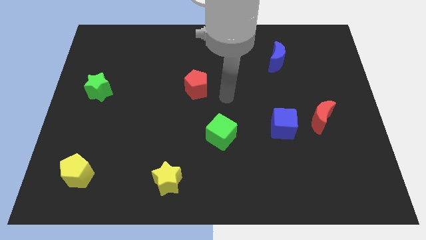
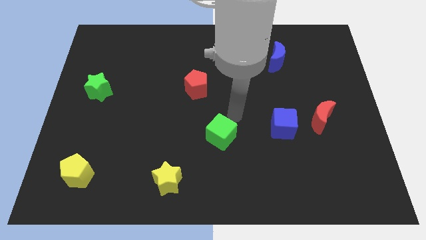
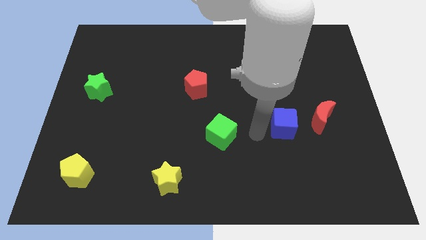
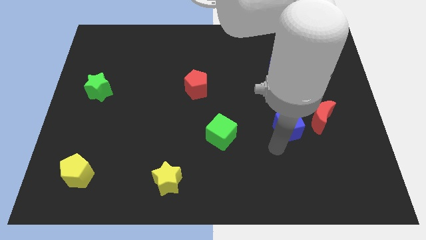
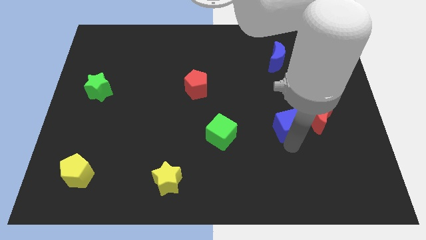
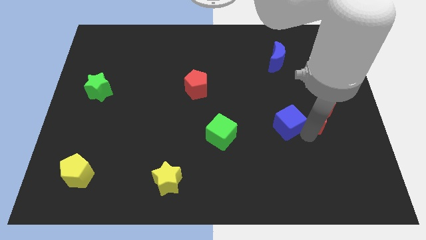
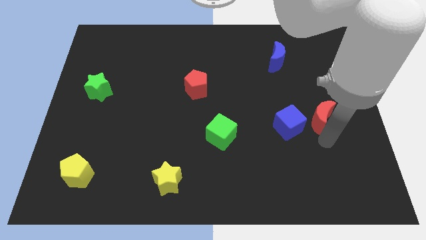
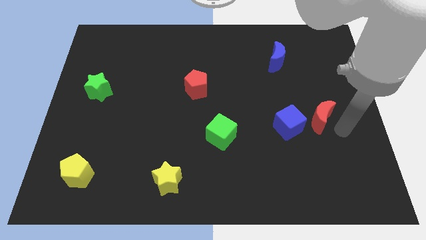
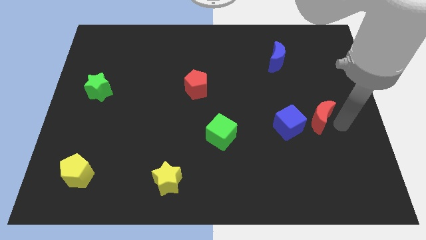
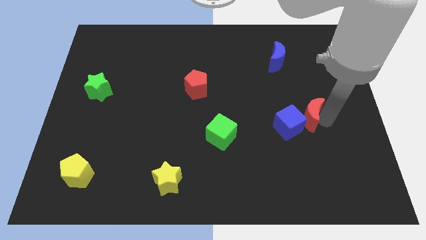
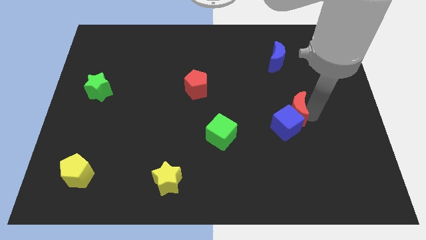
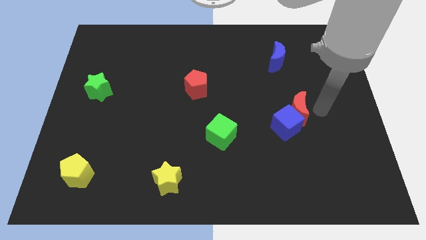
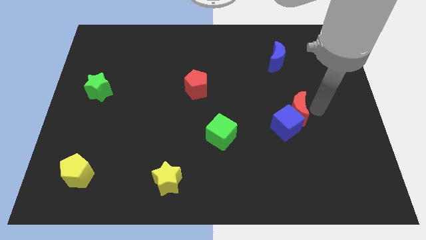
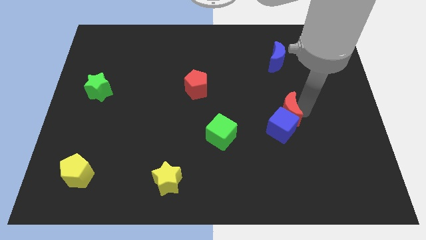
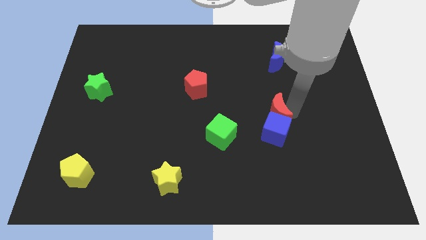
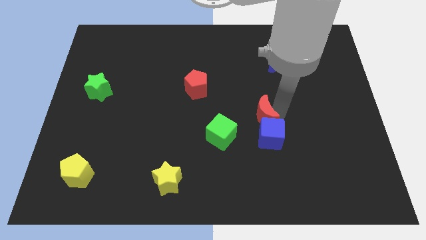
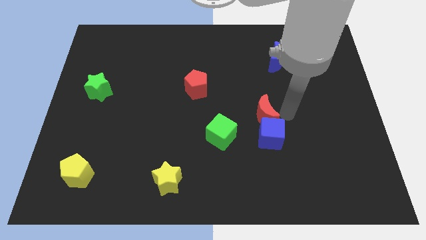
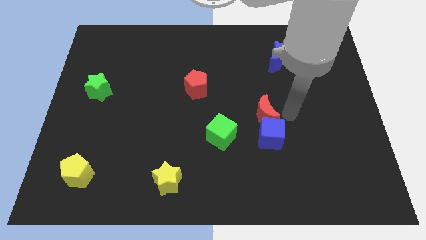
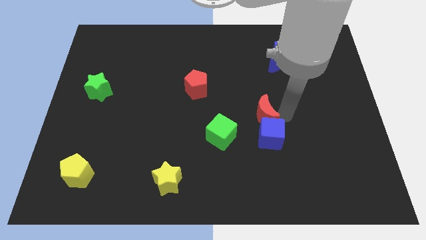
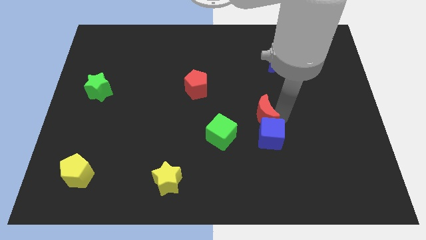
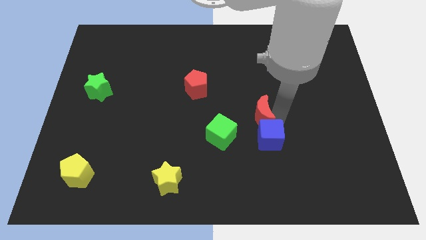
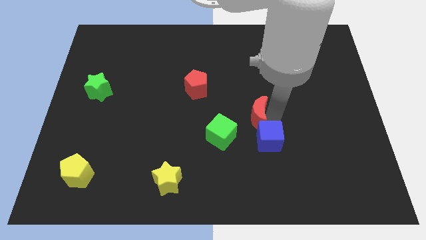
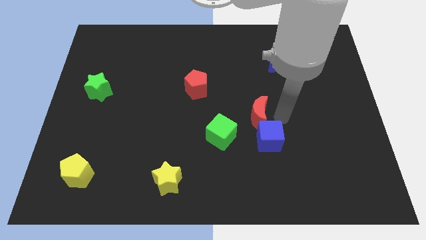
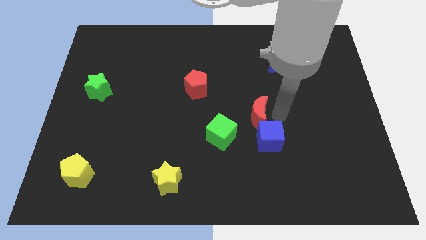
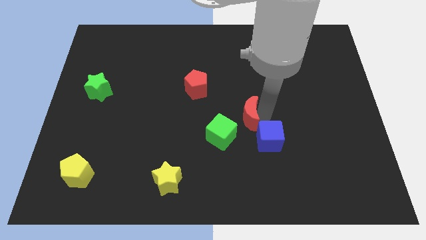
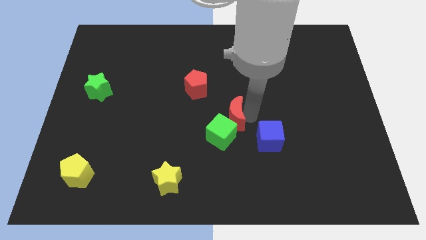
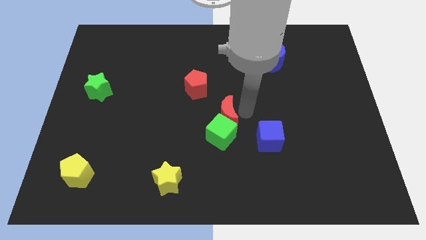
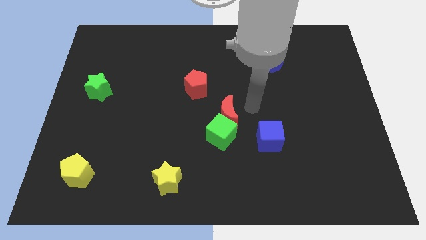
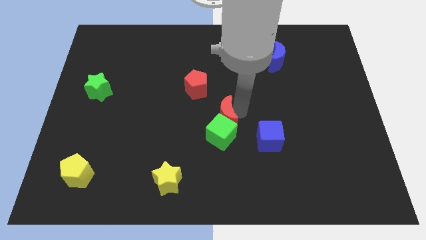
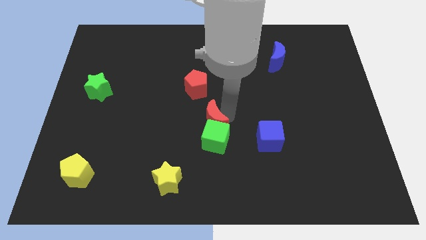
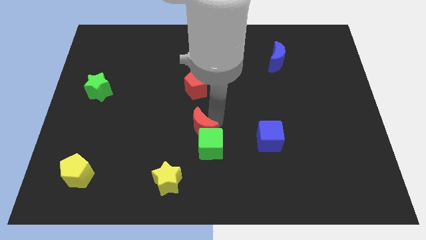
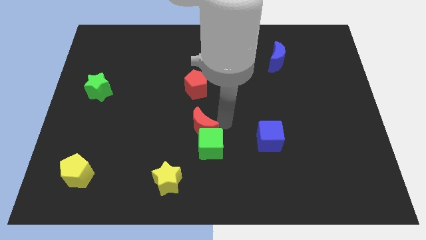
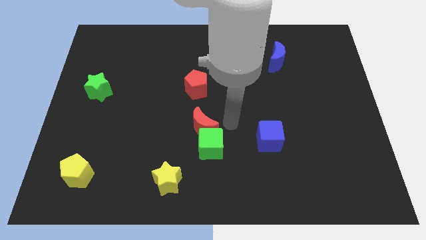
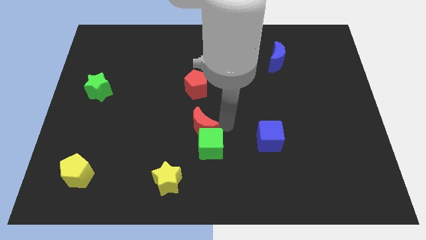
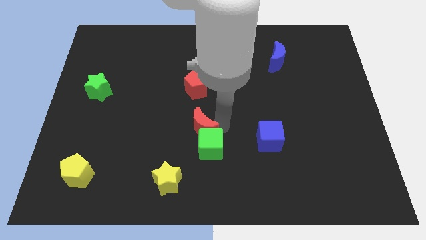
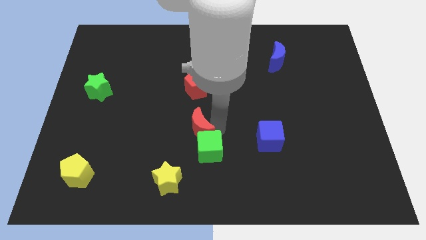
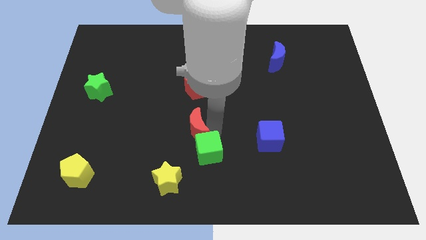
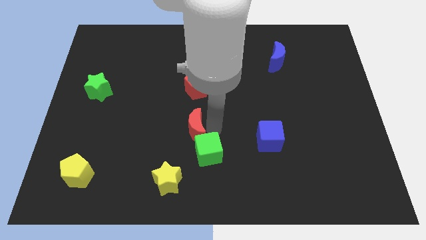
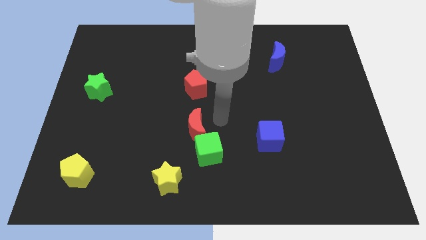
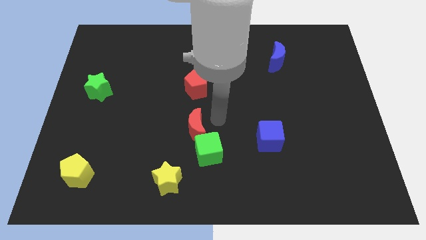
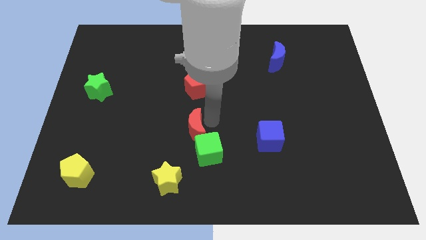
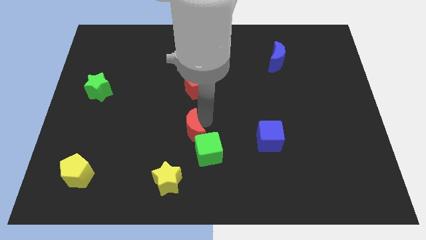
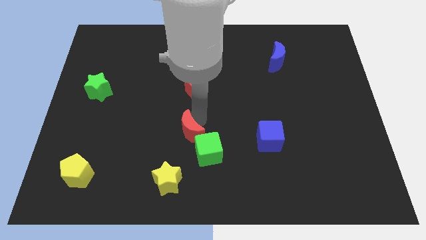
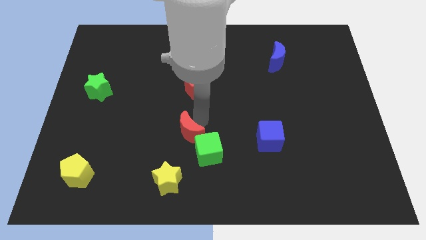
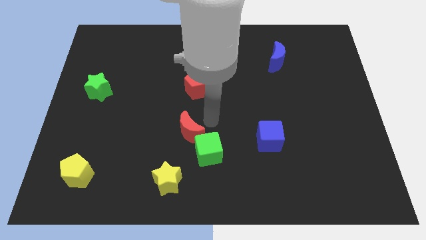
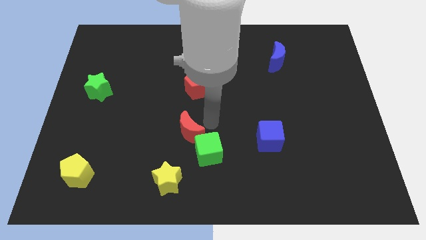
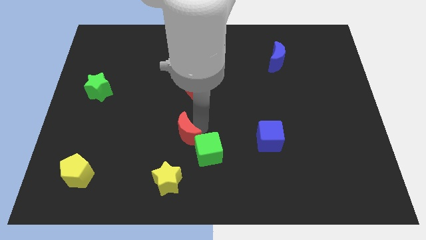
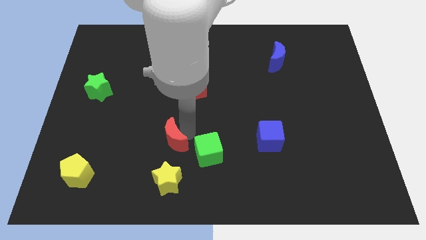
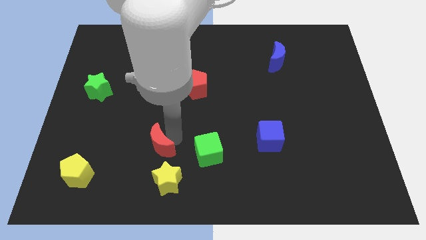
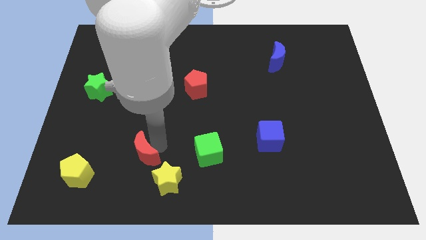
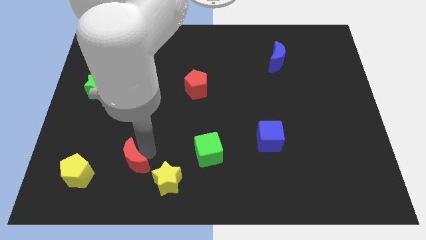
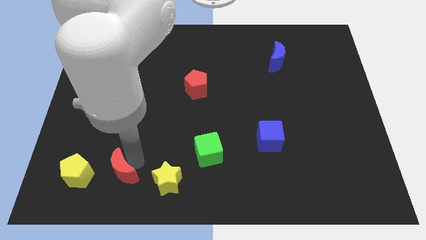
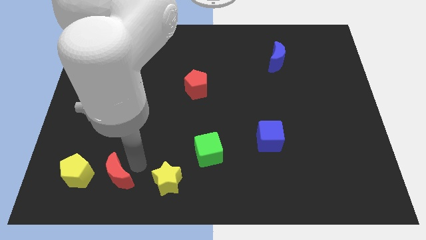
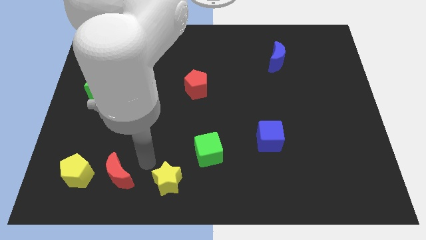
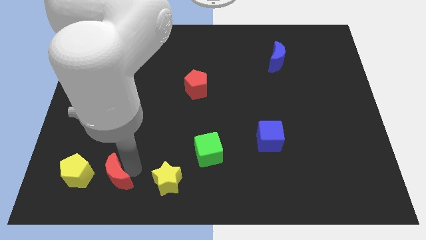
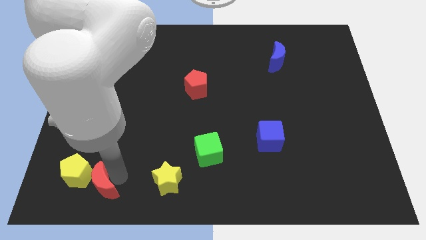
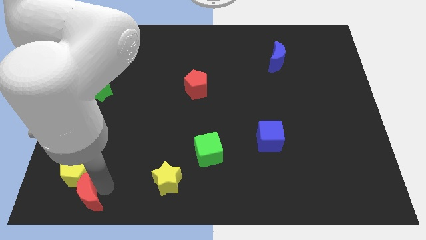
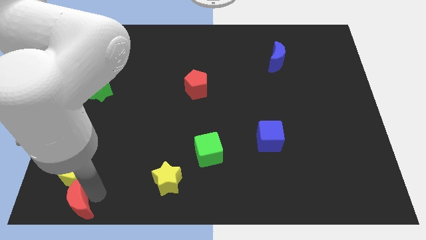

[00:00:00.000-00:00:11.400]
move the red moon to the lower left corner

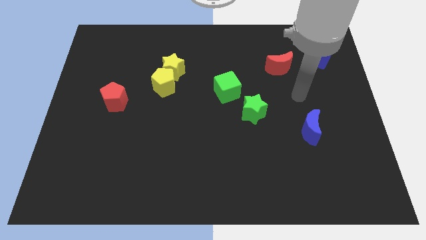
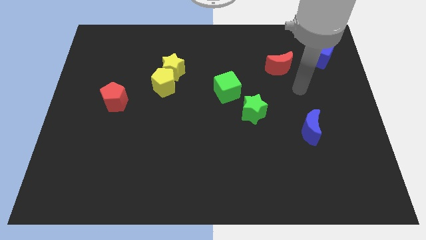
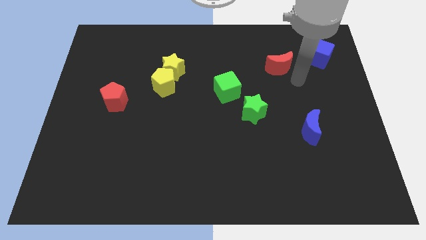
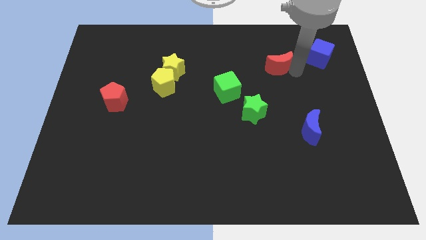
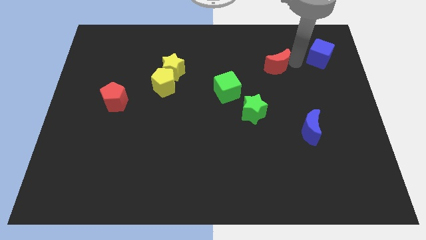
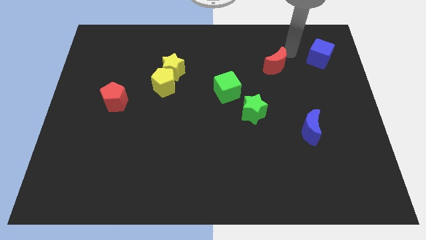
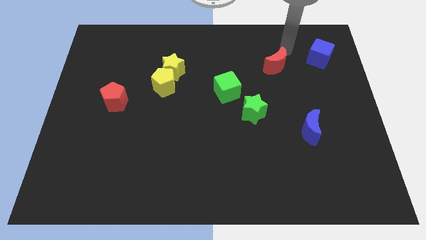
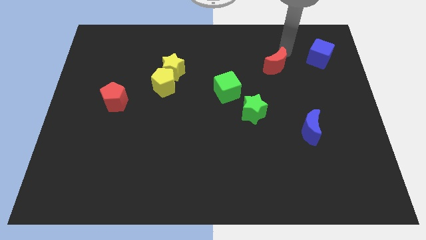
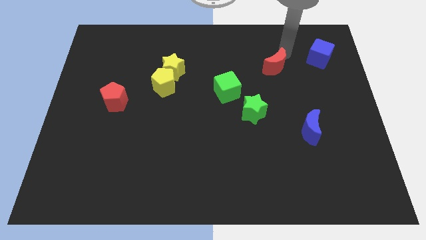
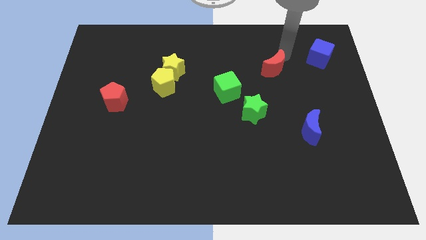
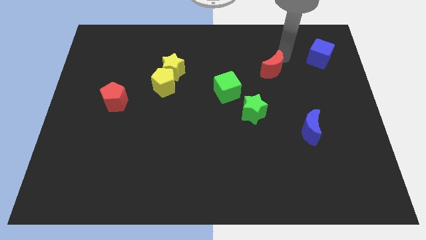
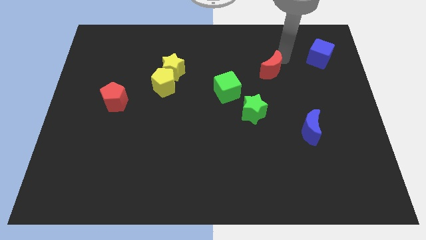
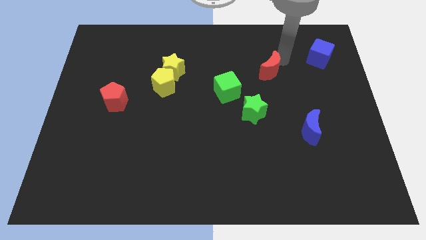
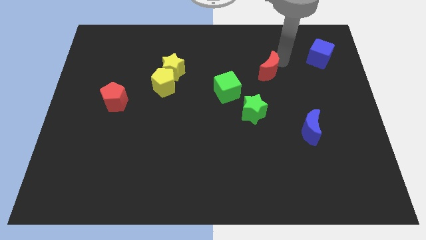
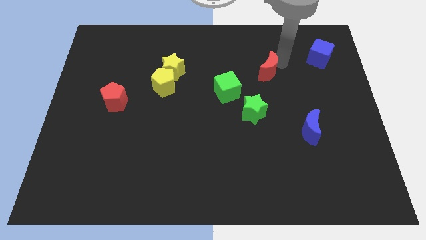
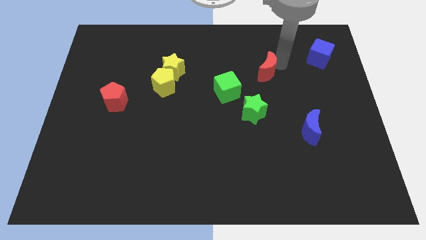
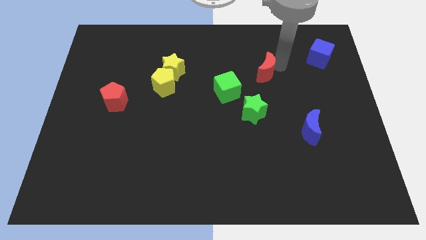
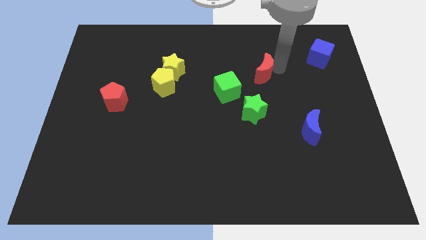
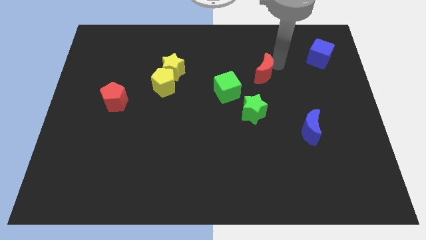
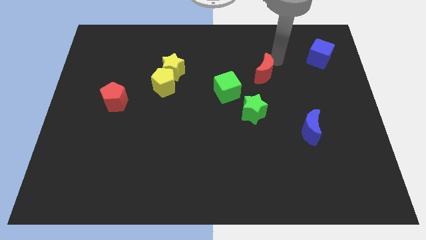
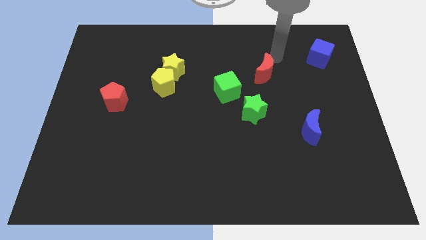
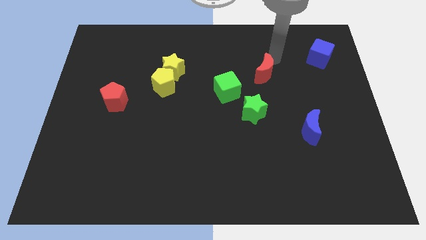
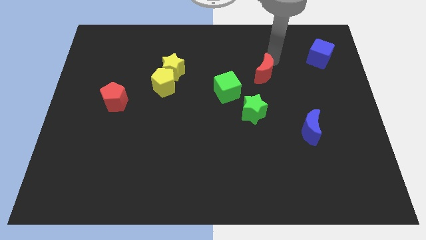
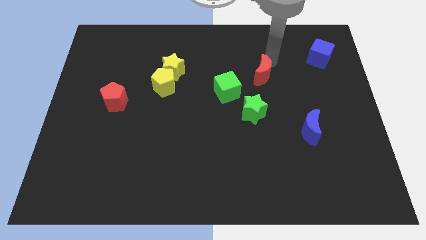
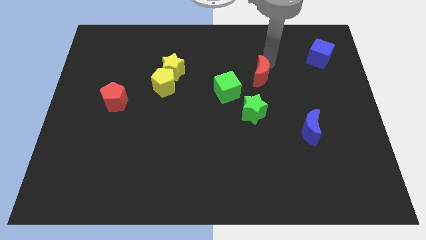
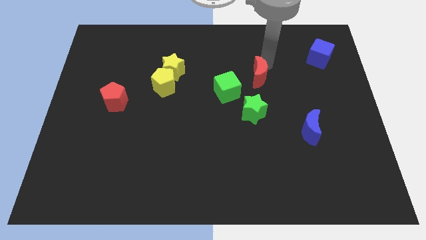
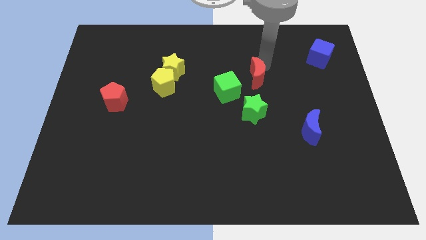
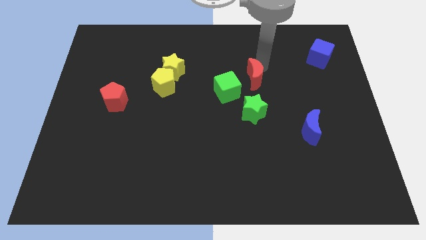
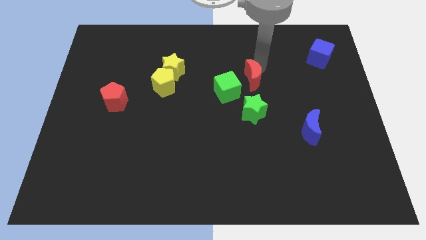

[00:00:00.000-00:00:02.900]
push the red moon to the middle of the board
